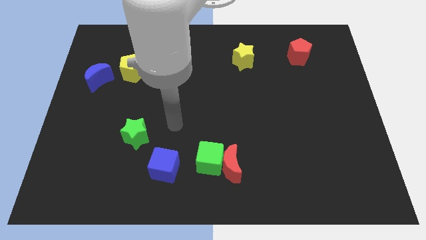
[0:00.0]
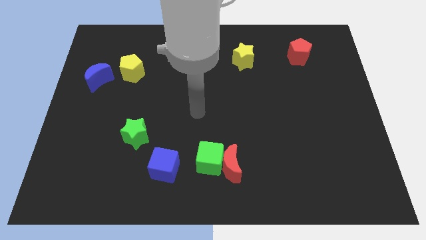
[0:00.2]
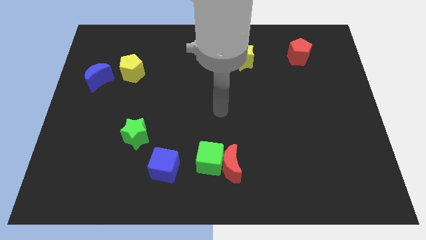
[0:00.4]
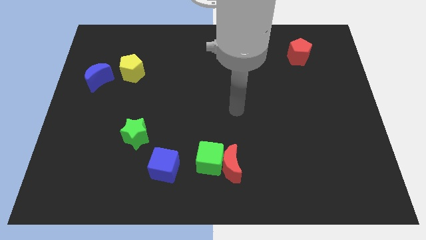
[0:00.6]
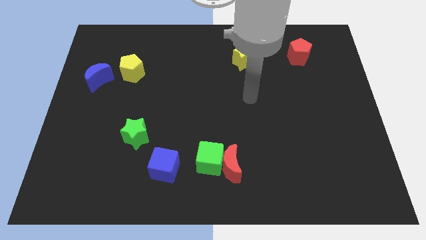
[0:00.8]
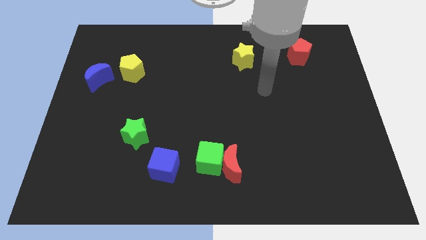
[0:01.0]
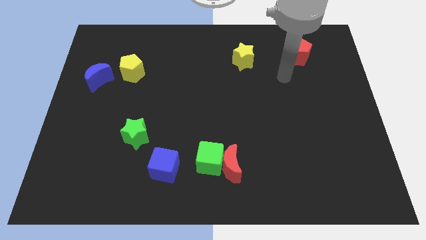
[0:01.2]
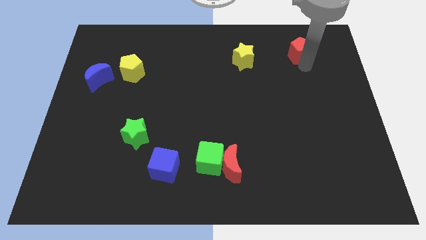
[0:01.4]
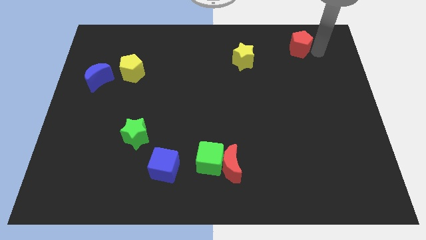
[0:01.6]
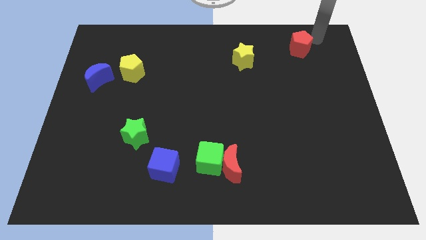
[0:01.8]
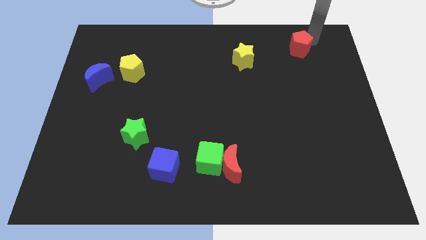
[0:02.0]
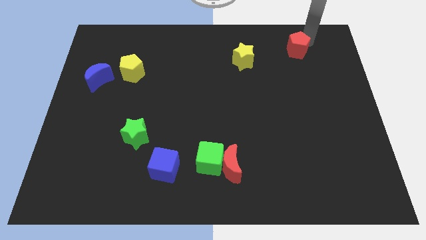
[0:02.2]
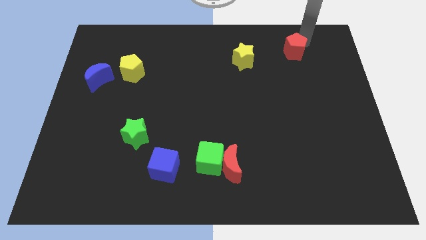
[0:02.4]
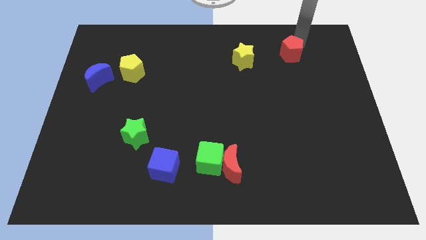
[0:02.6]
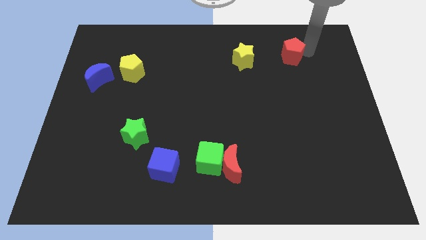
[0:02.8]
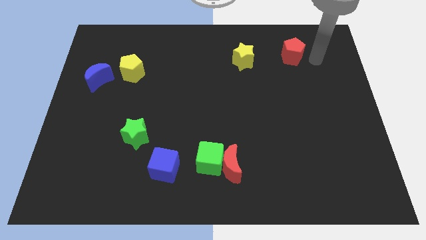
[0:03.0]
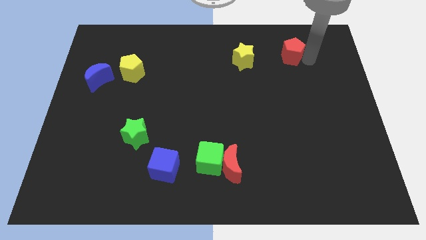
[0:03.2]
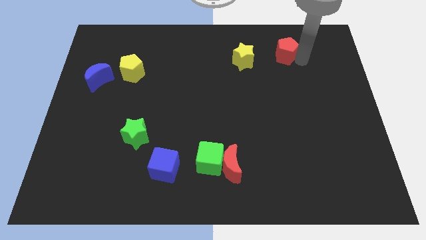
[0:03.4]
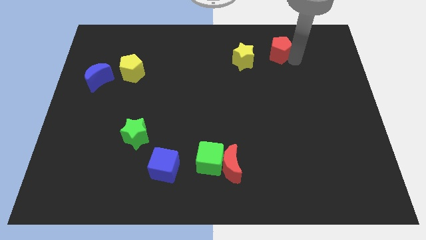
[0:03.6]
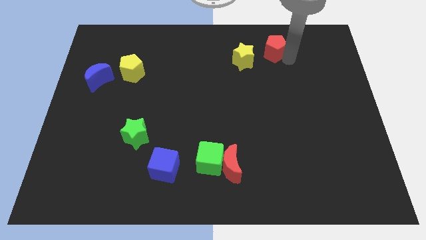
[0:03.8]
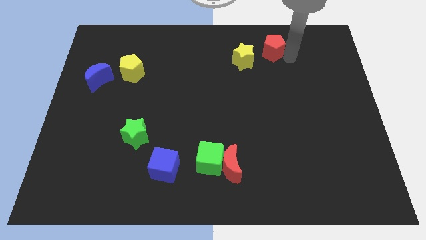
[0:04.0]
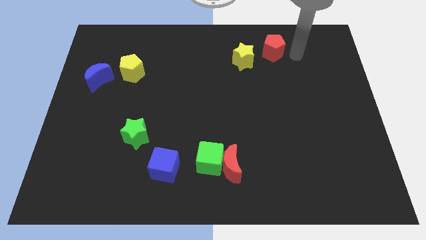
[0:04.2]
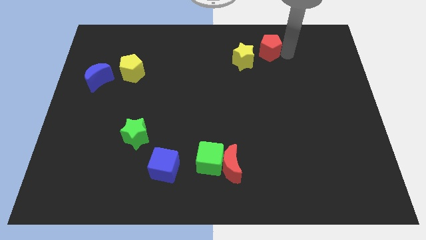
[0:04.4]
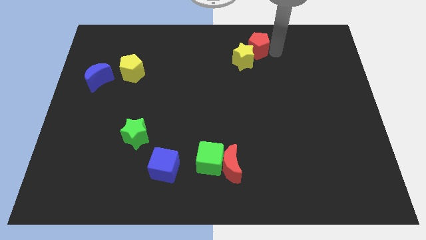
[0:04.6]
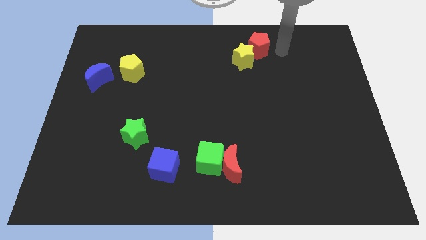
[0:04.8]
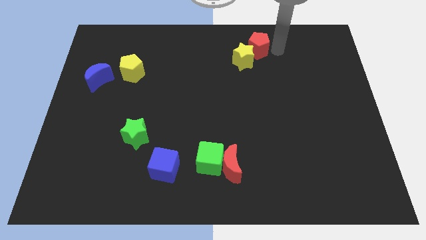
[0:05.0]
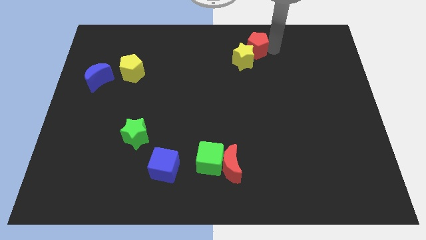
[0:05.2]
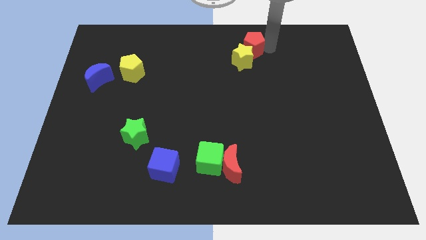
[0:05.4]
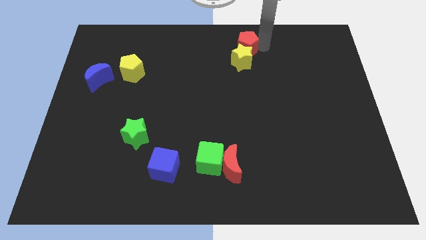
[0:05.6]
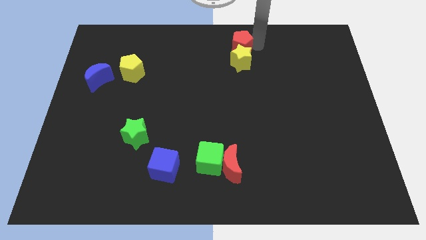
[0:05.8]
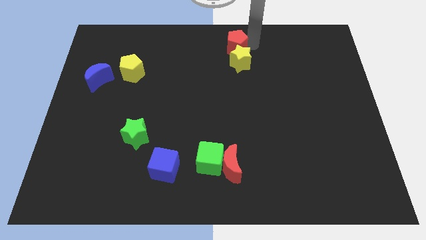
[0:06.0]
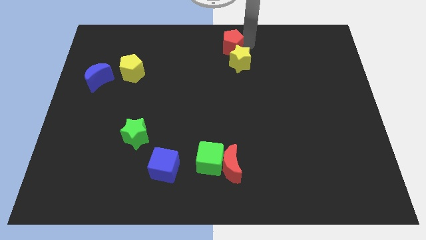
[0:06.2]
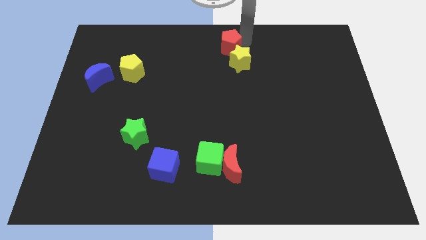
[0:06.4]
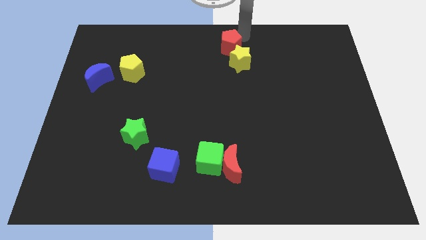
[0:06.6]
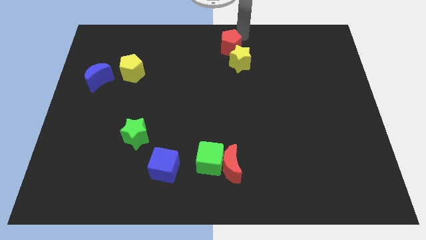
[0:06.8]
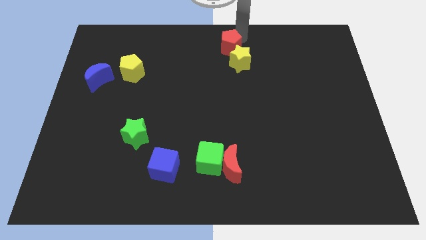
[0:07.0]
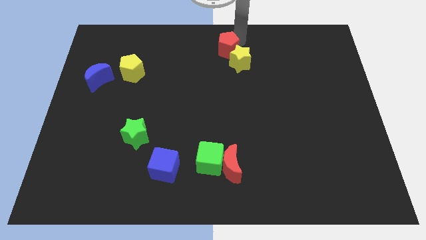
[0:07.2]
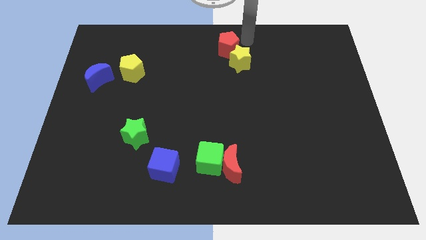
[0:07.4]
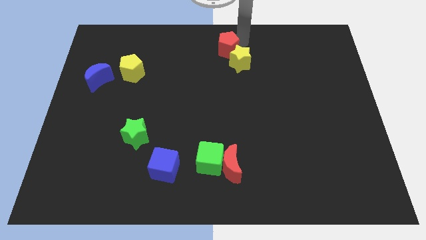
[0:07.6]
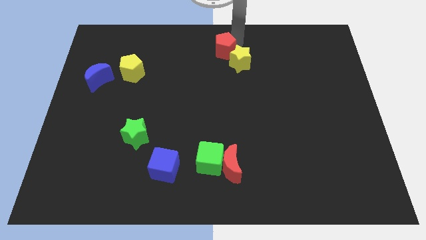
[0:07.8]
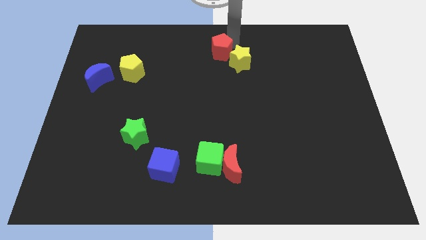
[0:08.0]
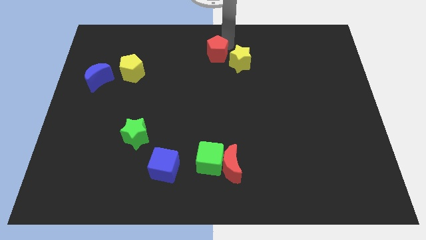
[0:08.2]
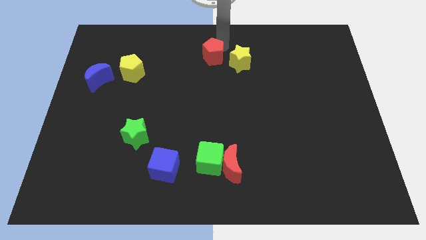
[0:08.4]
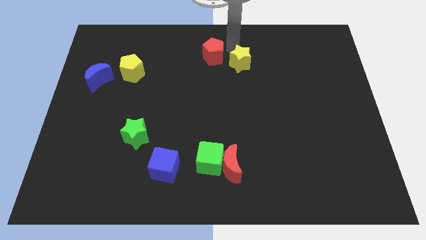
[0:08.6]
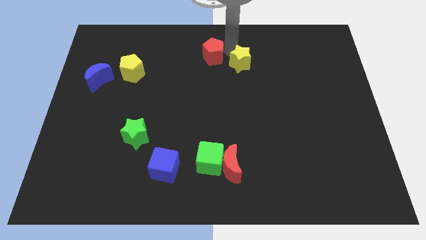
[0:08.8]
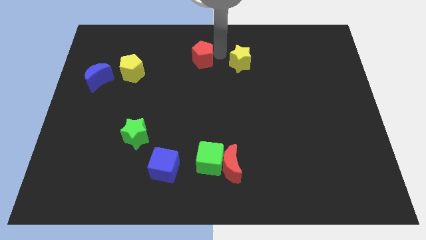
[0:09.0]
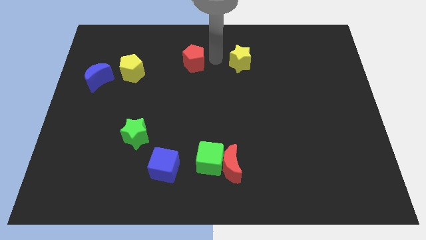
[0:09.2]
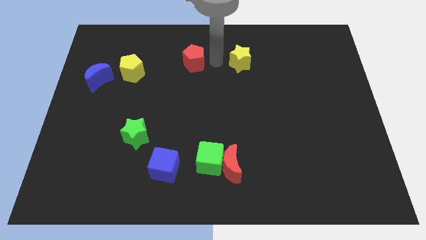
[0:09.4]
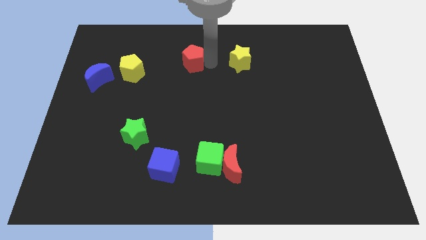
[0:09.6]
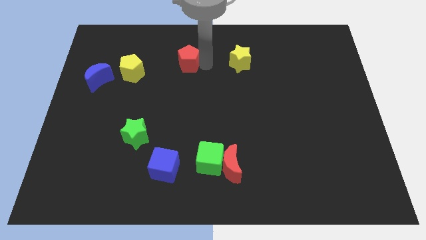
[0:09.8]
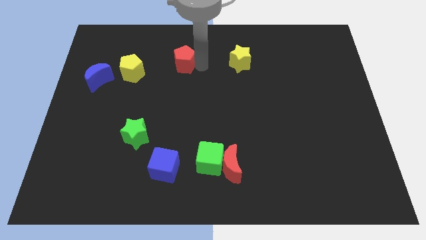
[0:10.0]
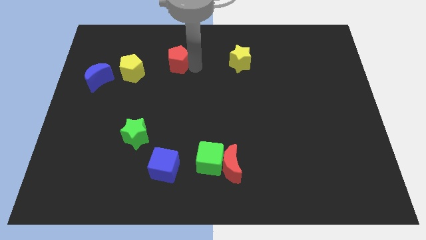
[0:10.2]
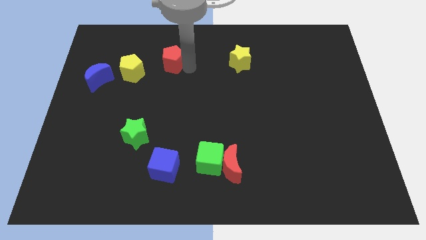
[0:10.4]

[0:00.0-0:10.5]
push the red pentagon to the top right of the yellow pentagon
